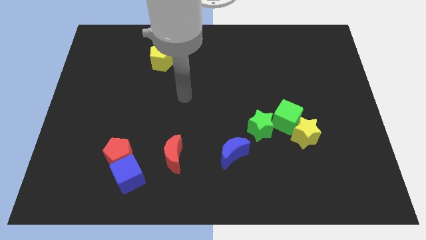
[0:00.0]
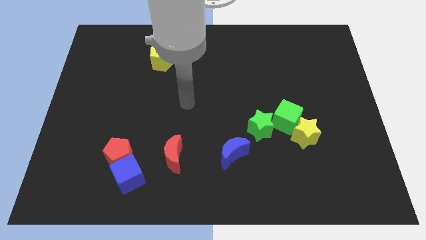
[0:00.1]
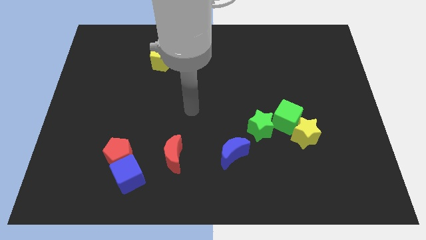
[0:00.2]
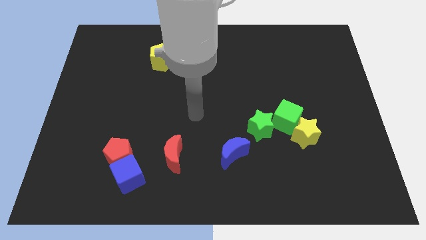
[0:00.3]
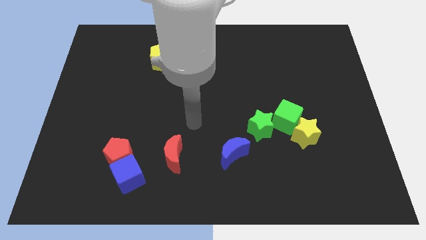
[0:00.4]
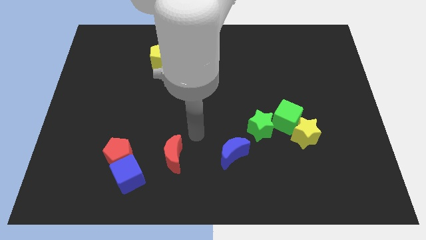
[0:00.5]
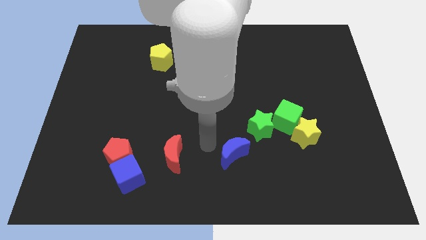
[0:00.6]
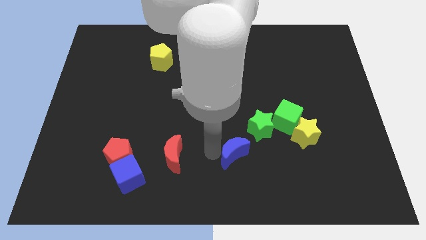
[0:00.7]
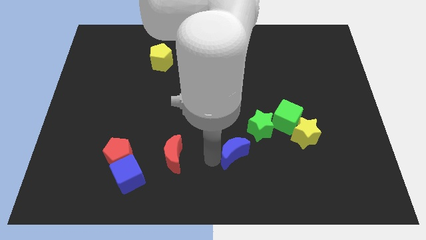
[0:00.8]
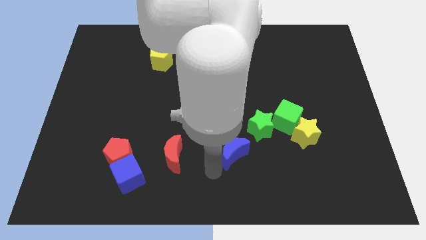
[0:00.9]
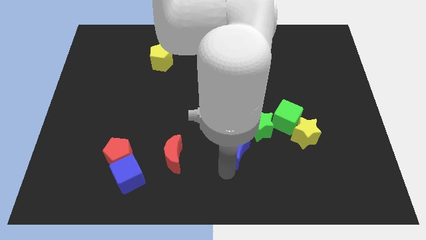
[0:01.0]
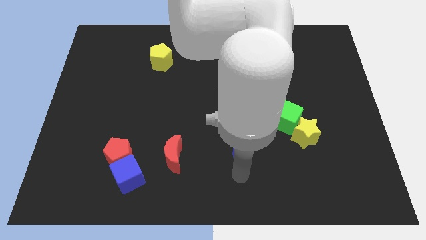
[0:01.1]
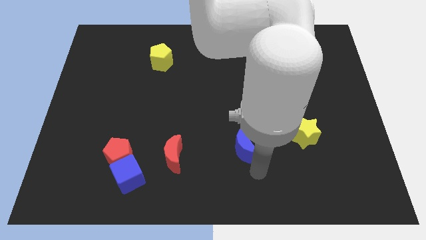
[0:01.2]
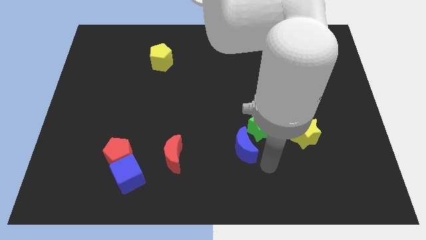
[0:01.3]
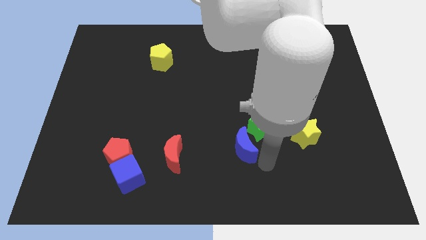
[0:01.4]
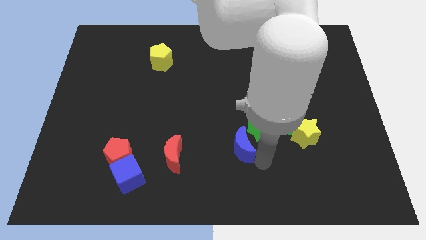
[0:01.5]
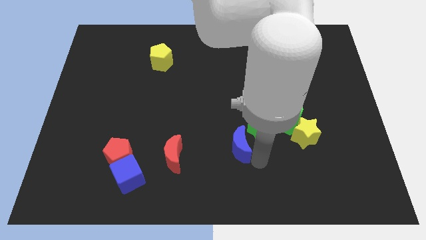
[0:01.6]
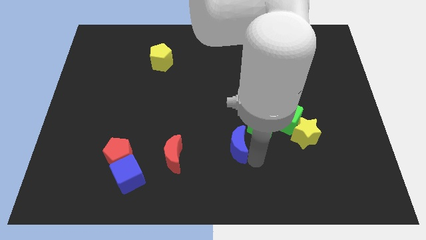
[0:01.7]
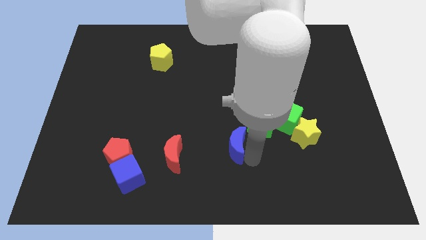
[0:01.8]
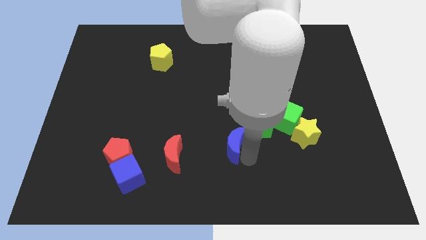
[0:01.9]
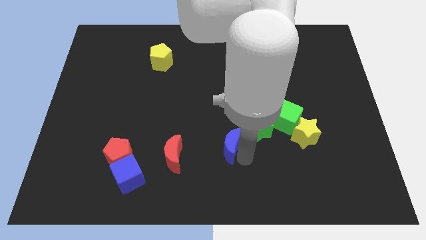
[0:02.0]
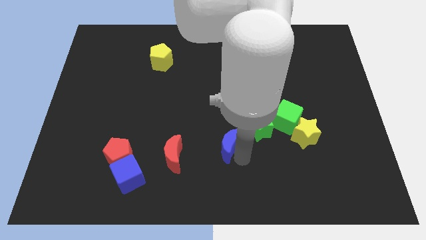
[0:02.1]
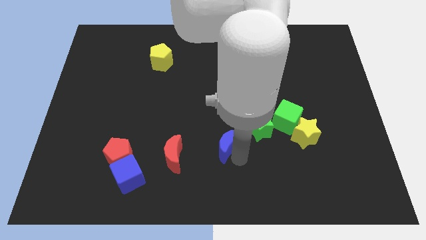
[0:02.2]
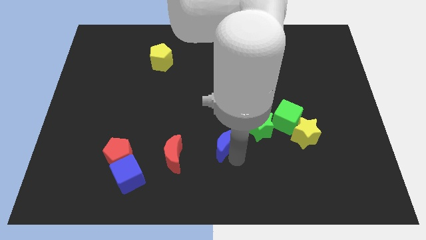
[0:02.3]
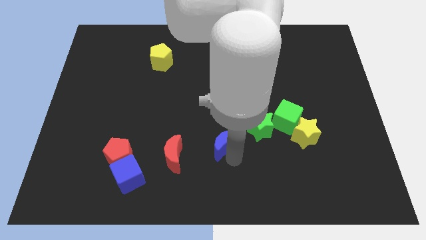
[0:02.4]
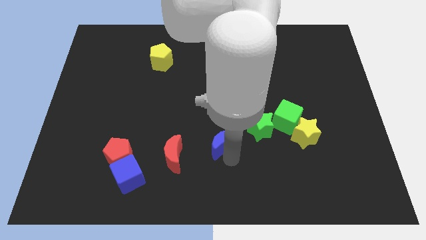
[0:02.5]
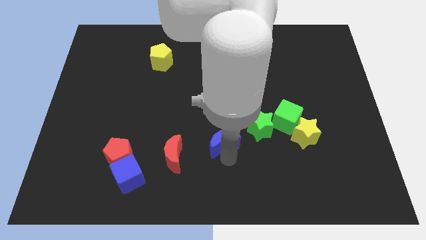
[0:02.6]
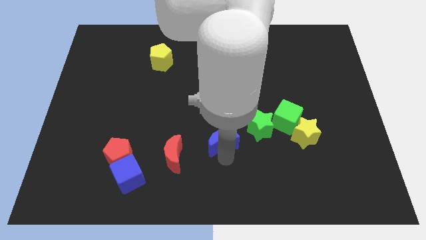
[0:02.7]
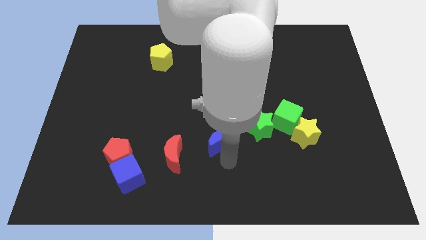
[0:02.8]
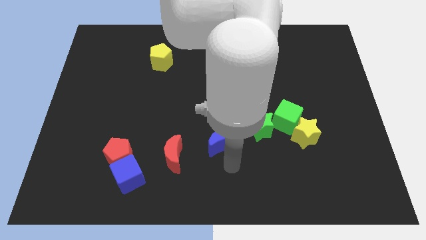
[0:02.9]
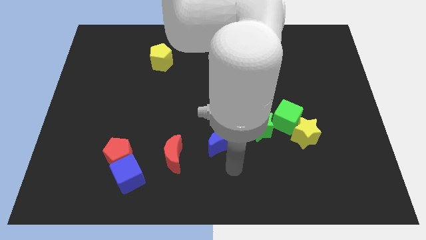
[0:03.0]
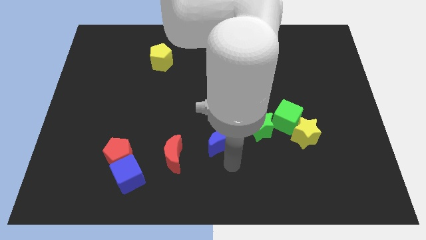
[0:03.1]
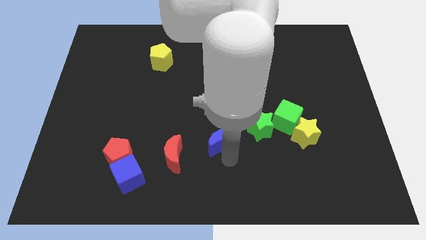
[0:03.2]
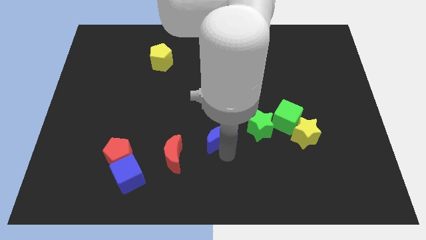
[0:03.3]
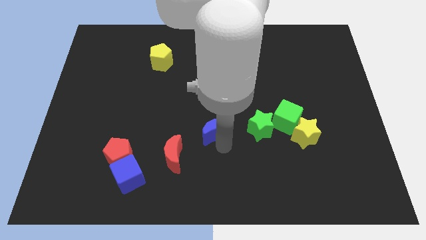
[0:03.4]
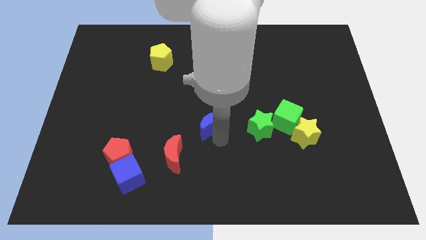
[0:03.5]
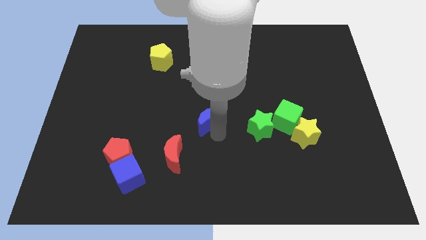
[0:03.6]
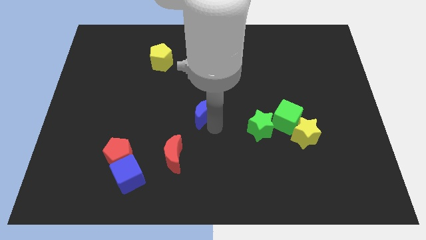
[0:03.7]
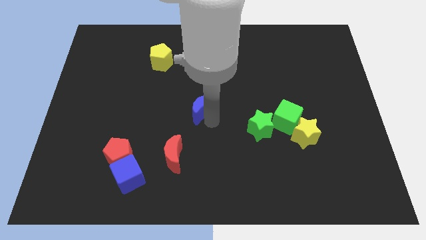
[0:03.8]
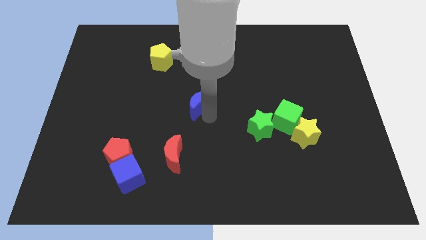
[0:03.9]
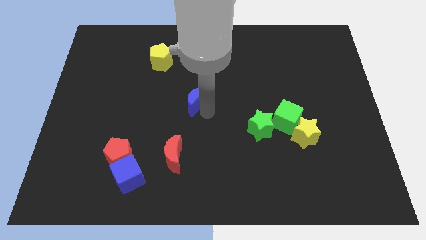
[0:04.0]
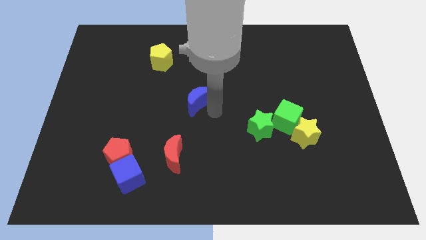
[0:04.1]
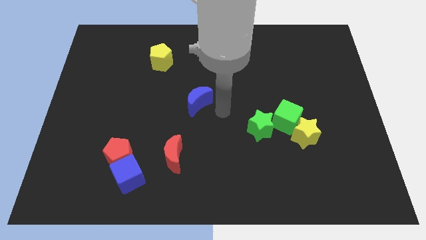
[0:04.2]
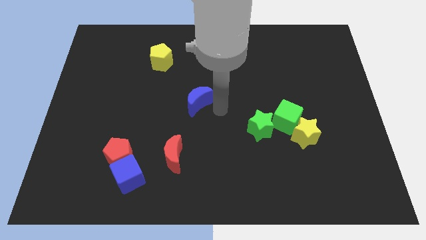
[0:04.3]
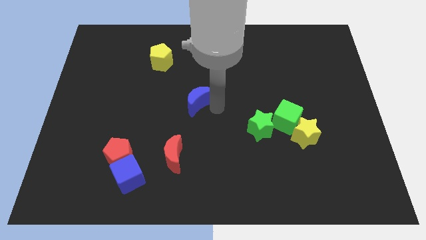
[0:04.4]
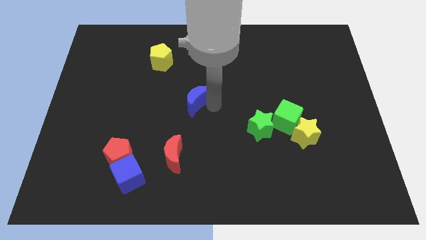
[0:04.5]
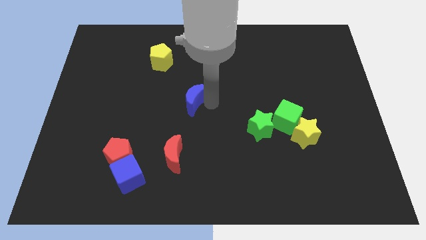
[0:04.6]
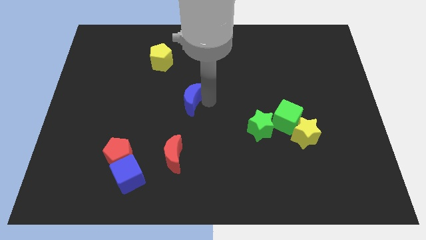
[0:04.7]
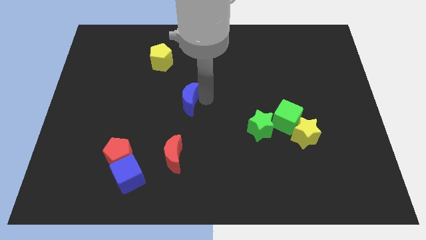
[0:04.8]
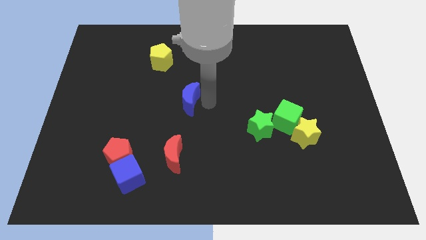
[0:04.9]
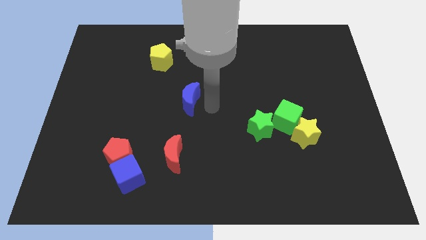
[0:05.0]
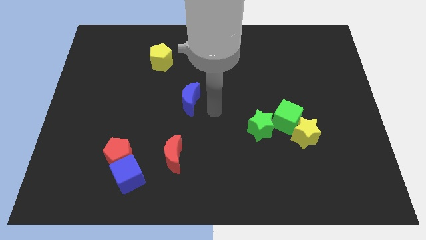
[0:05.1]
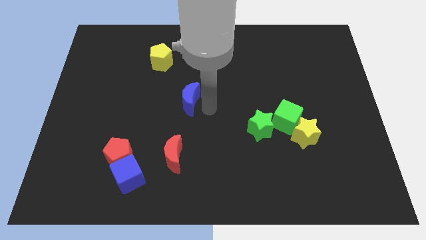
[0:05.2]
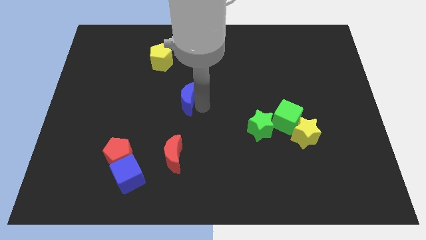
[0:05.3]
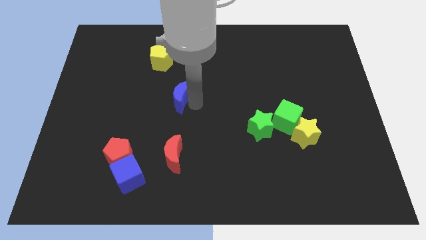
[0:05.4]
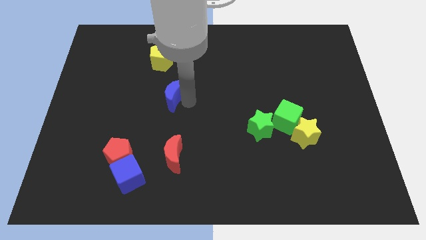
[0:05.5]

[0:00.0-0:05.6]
move the blue moon up and left

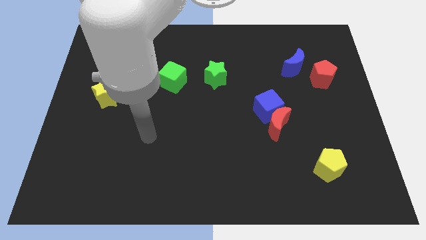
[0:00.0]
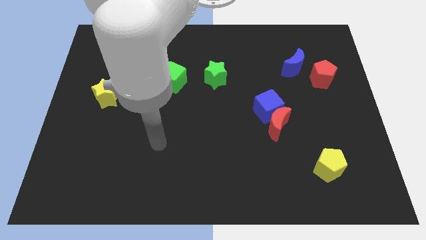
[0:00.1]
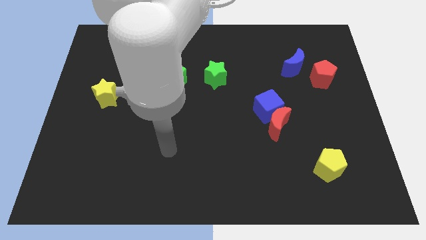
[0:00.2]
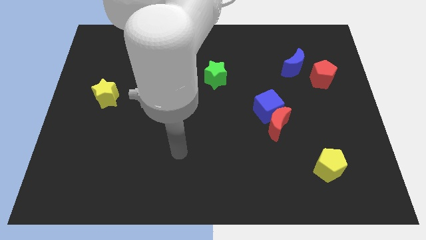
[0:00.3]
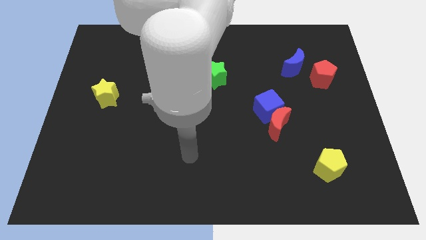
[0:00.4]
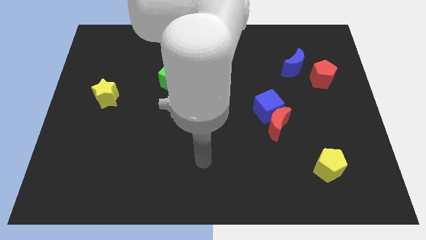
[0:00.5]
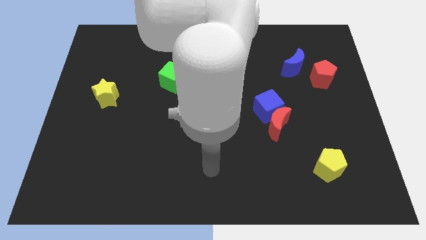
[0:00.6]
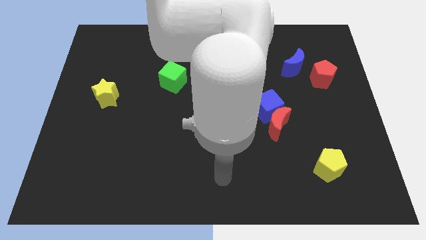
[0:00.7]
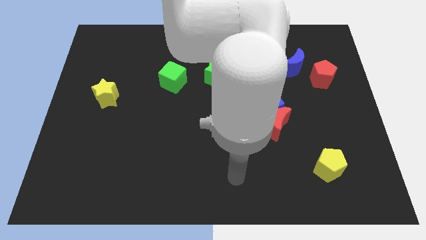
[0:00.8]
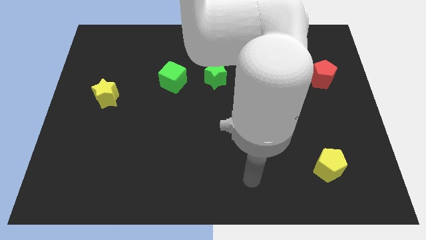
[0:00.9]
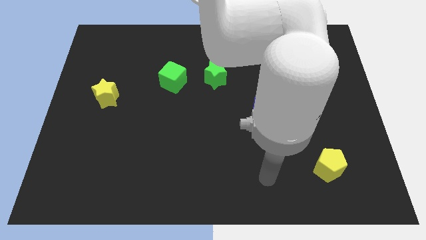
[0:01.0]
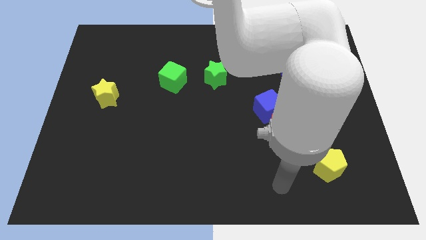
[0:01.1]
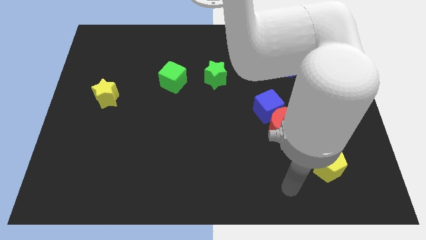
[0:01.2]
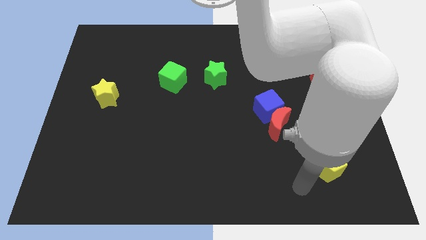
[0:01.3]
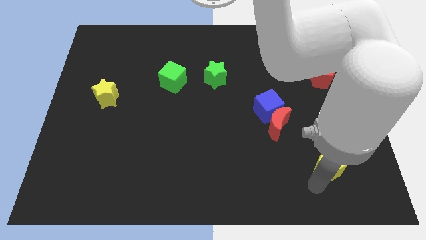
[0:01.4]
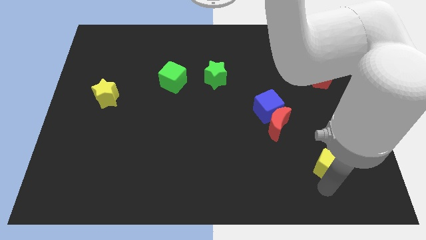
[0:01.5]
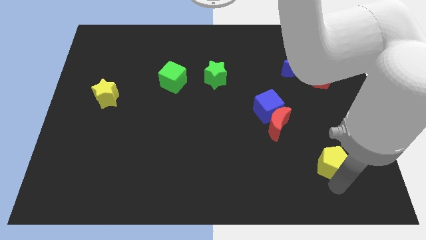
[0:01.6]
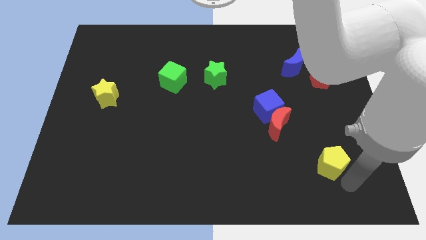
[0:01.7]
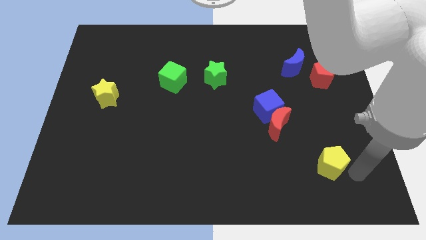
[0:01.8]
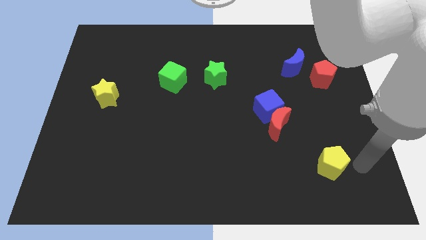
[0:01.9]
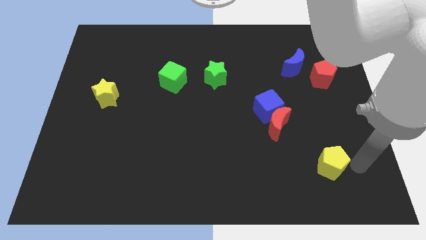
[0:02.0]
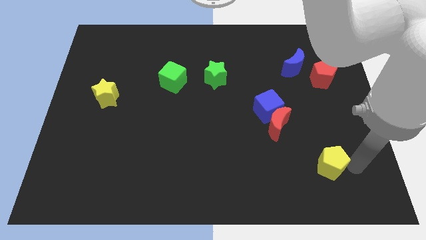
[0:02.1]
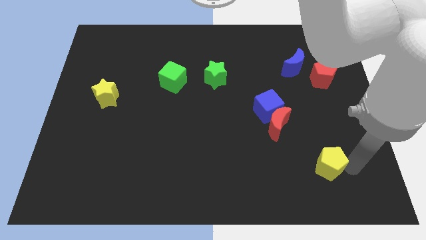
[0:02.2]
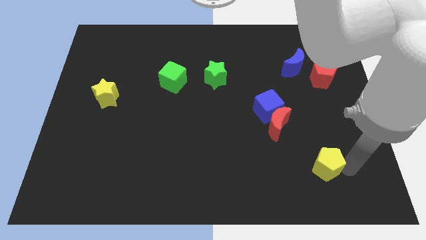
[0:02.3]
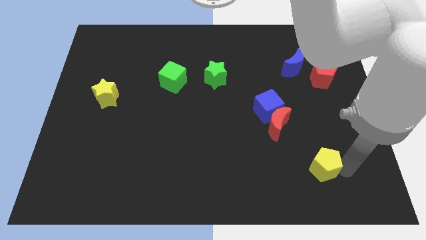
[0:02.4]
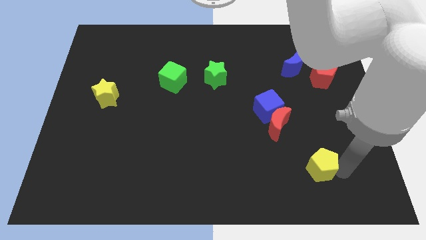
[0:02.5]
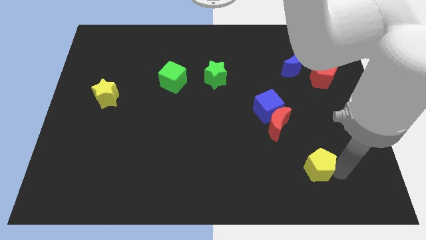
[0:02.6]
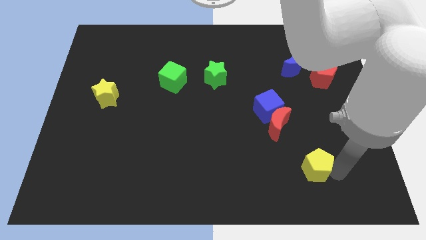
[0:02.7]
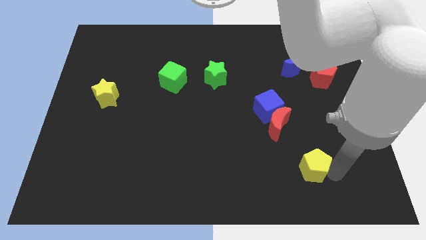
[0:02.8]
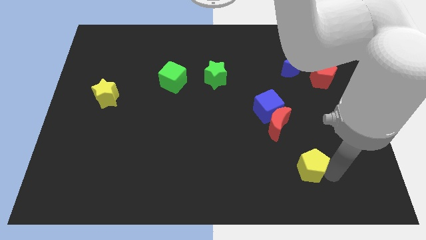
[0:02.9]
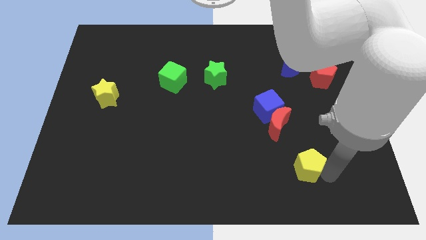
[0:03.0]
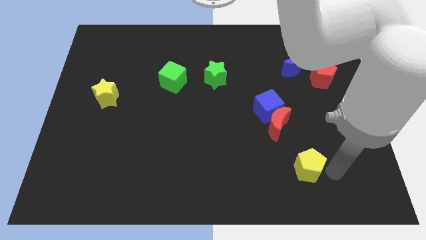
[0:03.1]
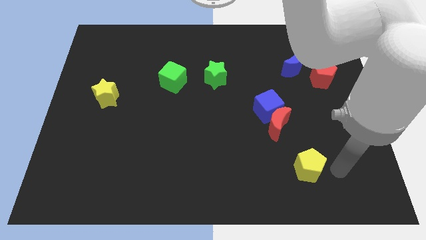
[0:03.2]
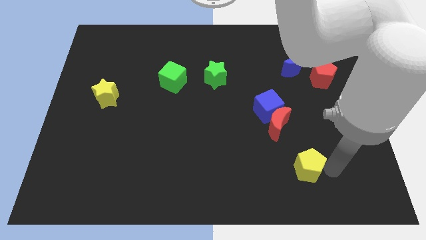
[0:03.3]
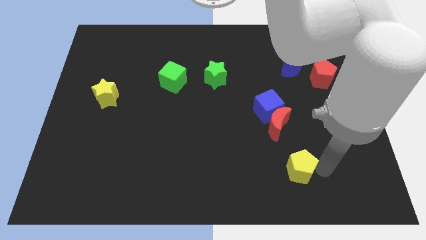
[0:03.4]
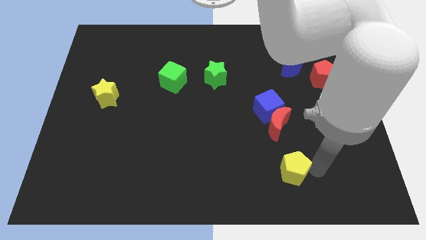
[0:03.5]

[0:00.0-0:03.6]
push the yellow pentagon to the left slightly
